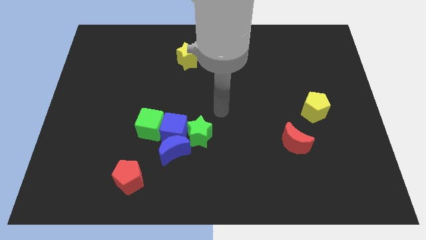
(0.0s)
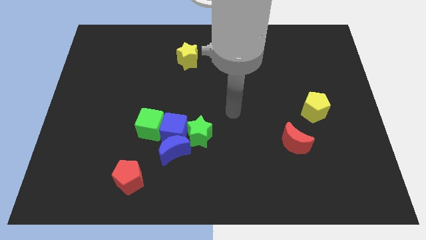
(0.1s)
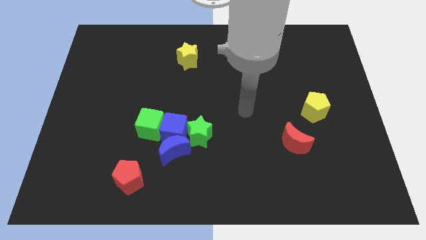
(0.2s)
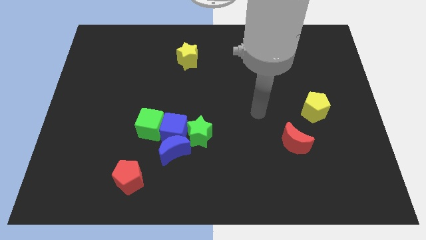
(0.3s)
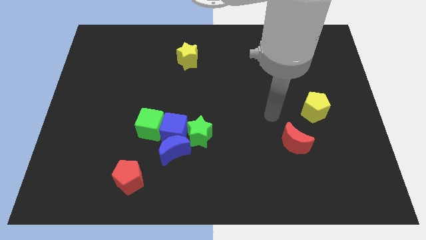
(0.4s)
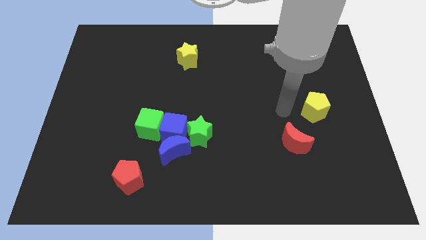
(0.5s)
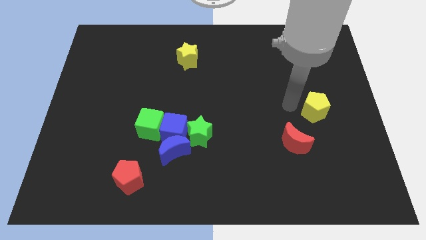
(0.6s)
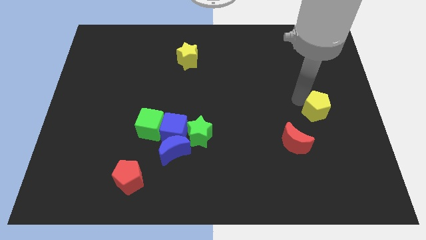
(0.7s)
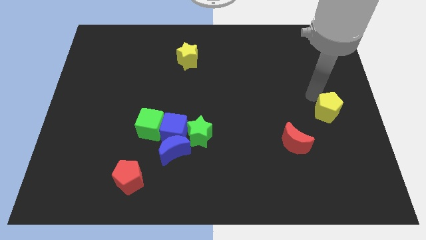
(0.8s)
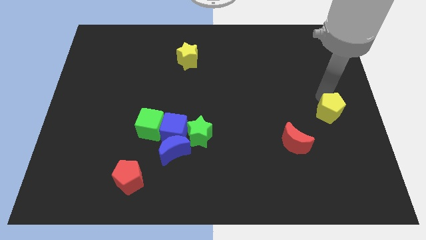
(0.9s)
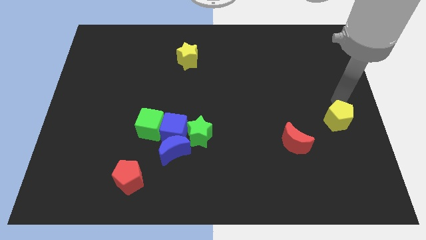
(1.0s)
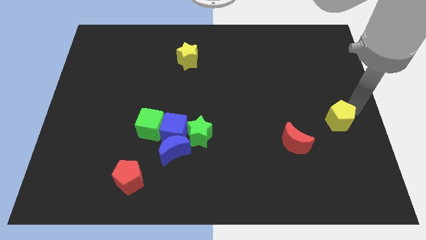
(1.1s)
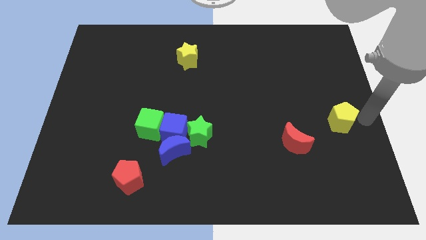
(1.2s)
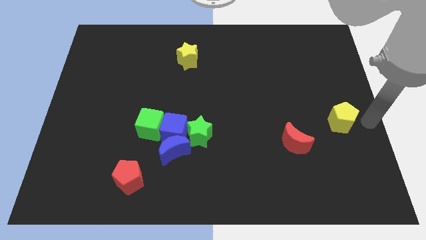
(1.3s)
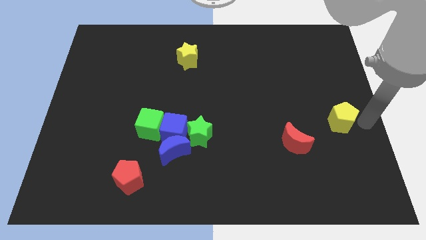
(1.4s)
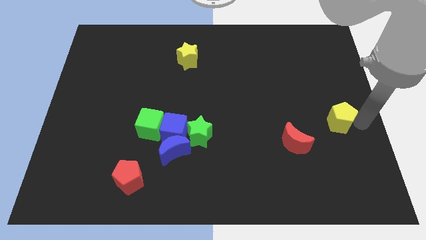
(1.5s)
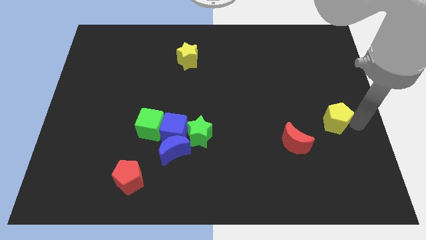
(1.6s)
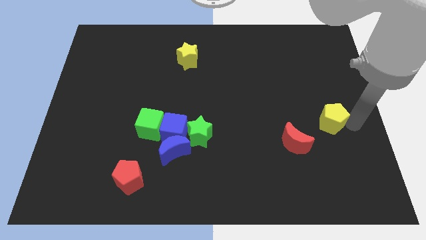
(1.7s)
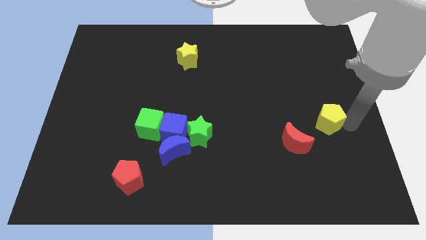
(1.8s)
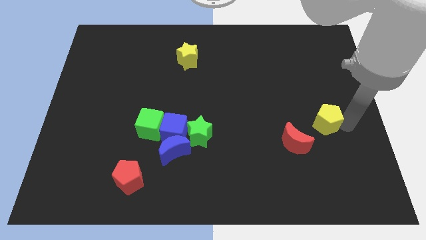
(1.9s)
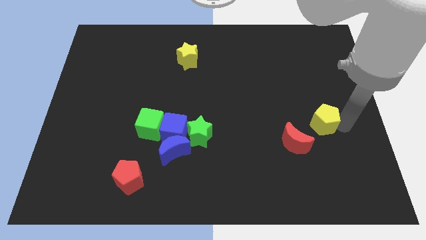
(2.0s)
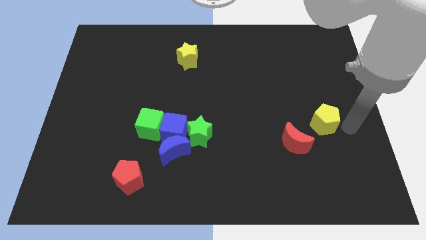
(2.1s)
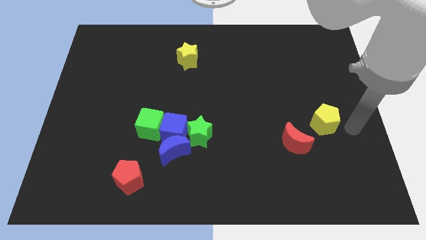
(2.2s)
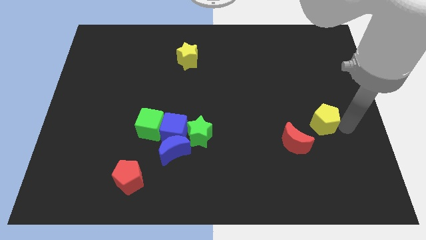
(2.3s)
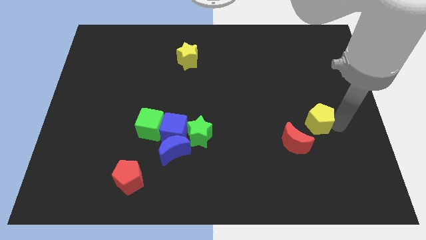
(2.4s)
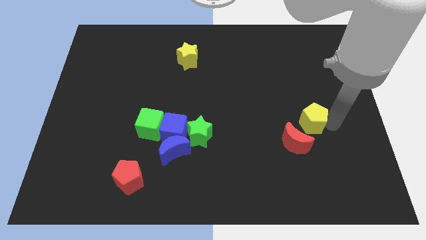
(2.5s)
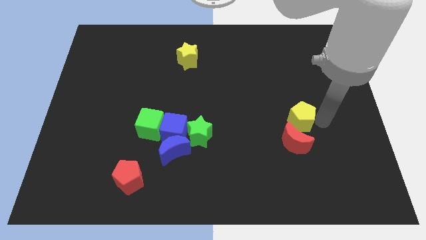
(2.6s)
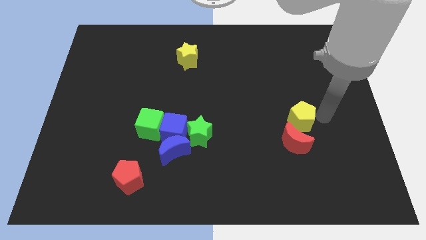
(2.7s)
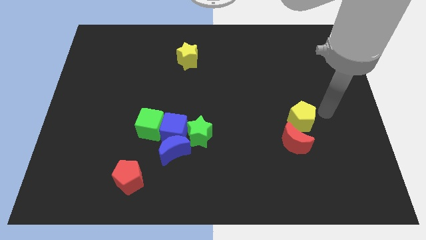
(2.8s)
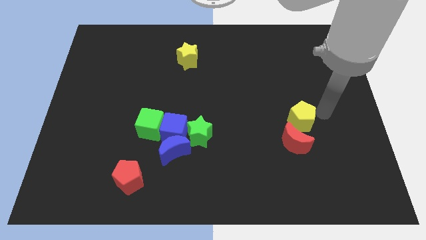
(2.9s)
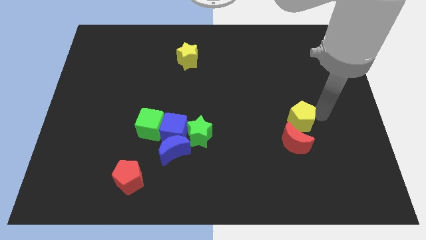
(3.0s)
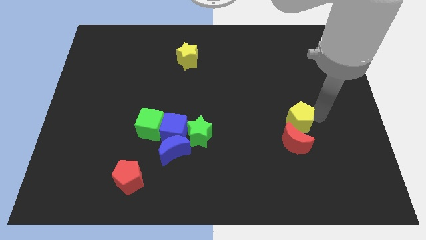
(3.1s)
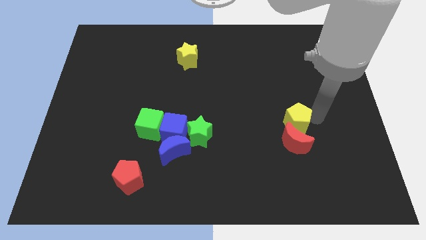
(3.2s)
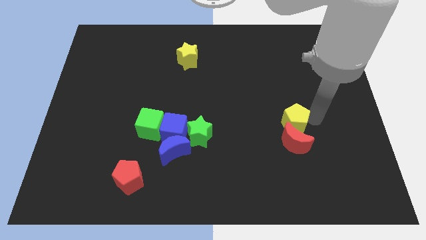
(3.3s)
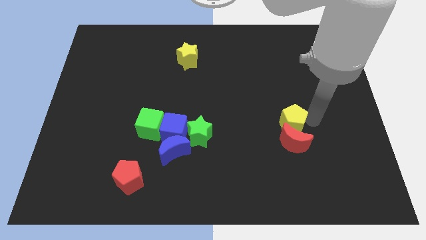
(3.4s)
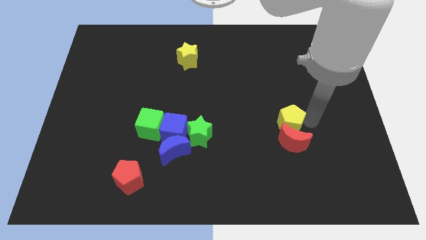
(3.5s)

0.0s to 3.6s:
push the yellow pentagon slightly downwards and then left

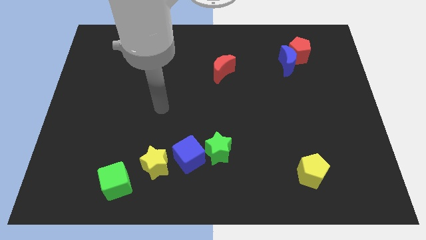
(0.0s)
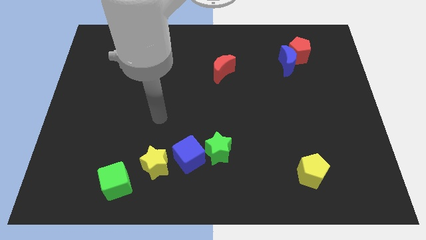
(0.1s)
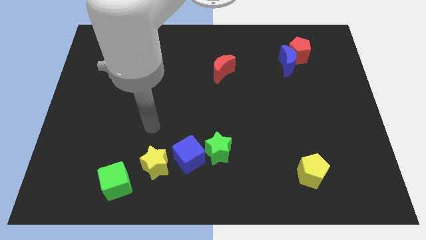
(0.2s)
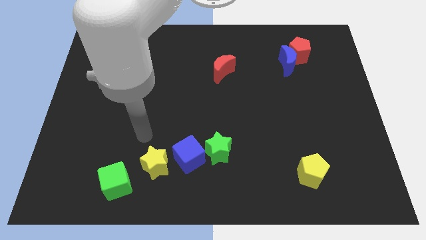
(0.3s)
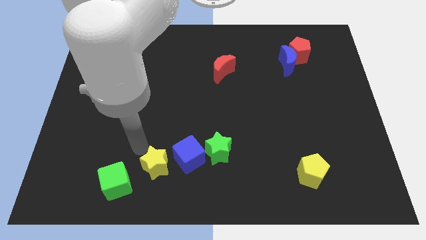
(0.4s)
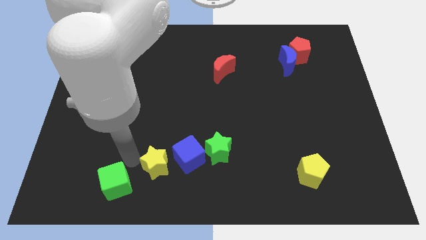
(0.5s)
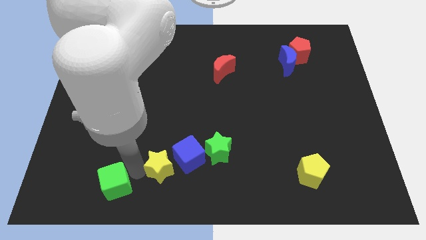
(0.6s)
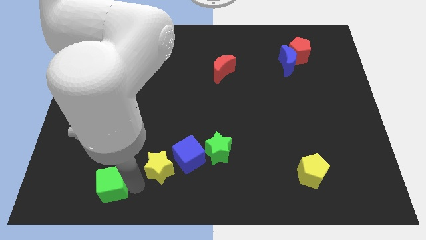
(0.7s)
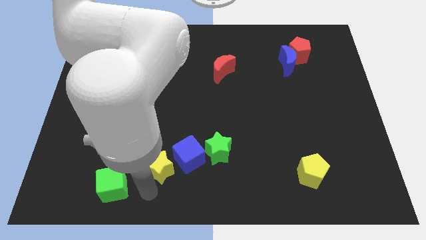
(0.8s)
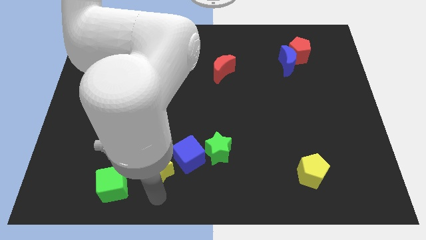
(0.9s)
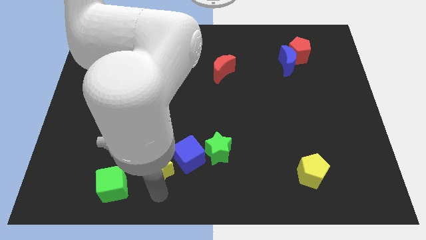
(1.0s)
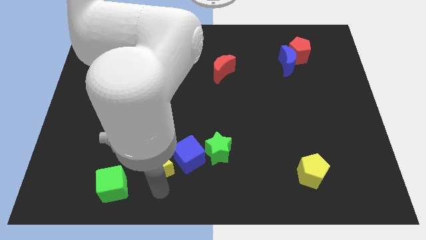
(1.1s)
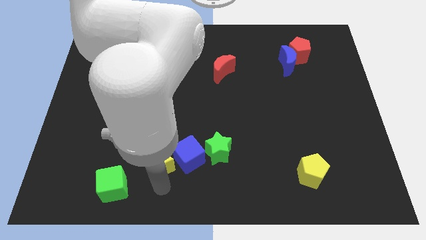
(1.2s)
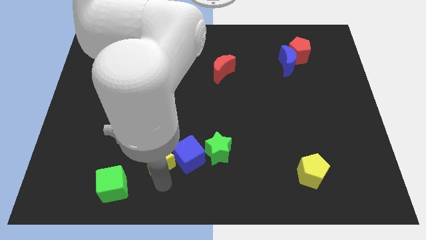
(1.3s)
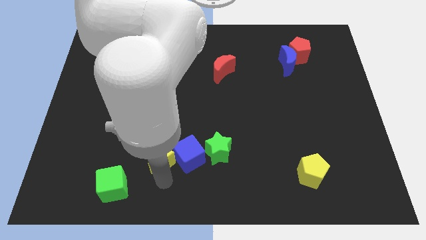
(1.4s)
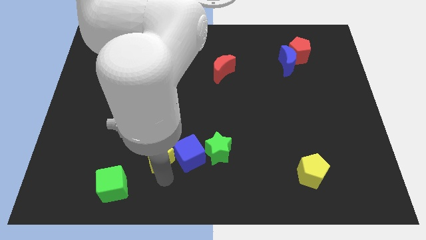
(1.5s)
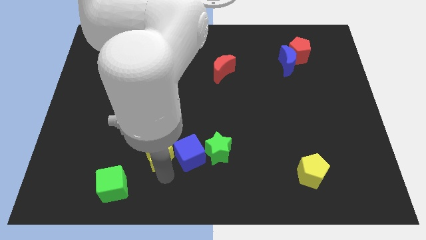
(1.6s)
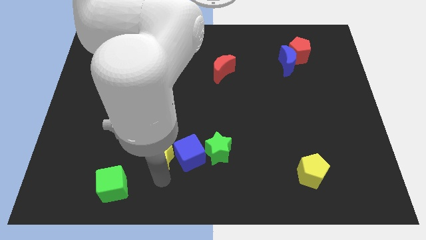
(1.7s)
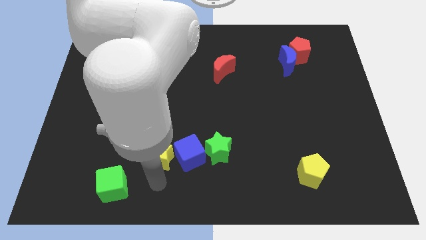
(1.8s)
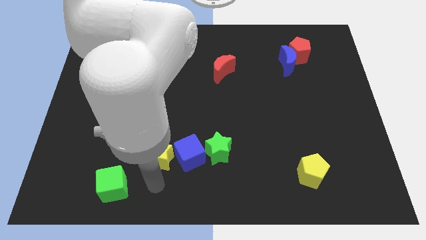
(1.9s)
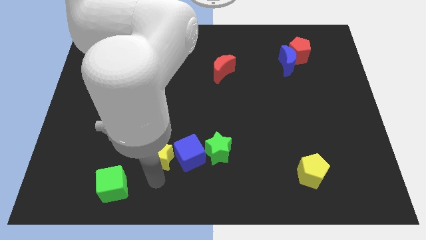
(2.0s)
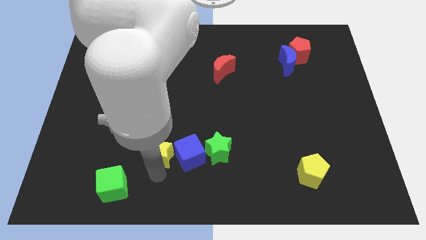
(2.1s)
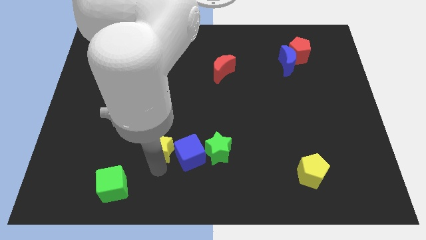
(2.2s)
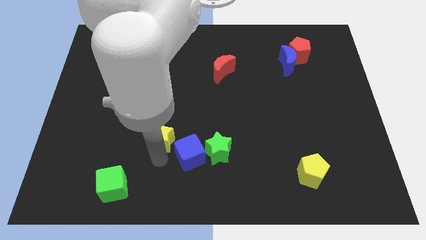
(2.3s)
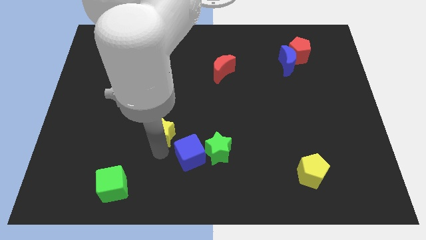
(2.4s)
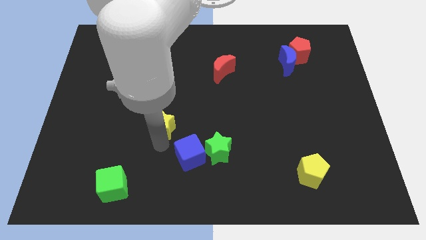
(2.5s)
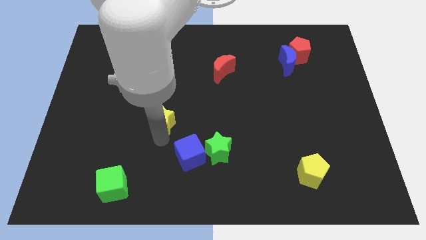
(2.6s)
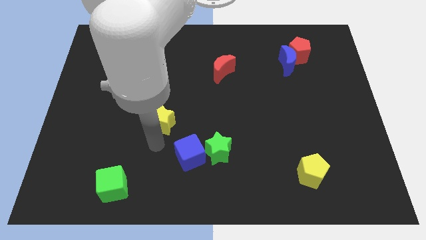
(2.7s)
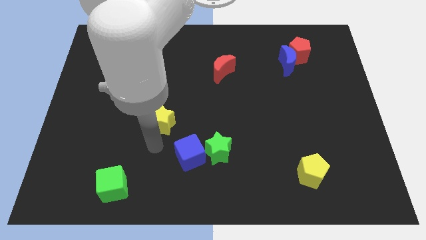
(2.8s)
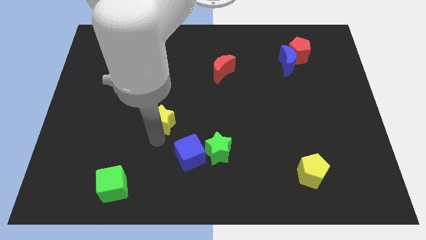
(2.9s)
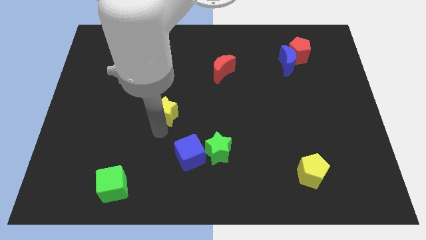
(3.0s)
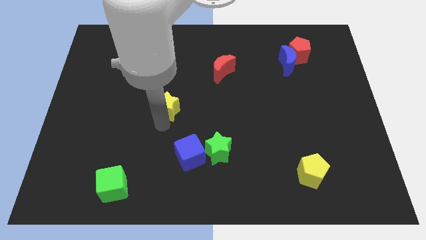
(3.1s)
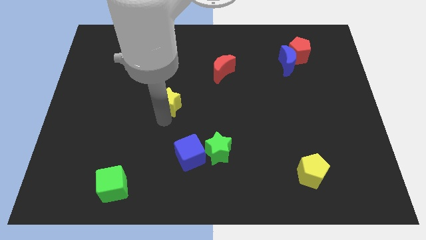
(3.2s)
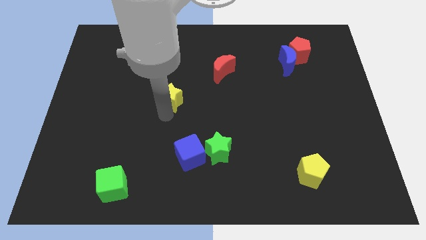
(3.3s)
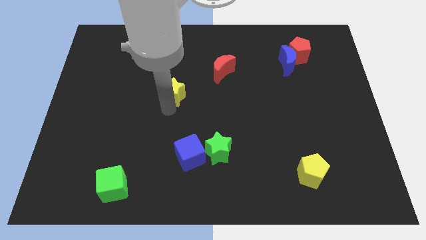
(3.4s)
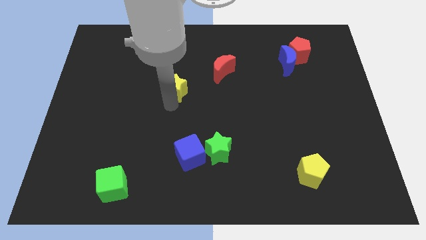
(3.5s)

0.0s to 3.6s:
move the yellow star up

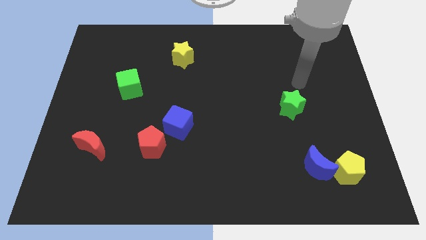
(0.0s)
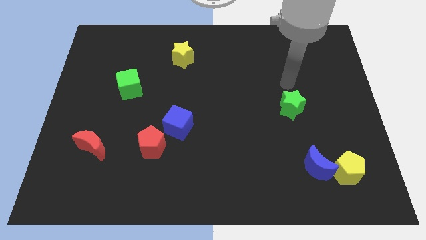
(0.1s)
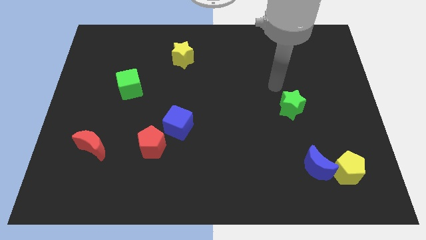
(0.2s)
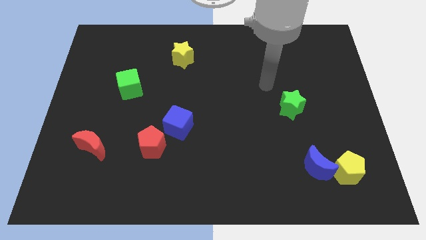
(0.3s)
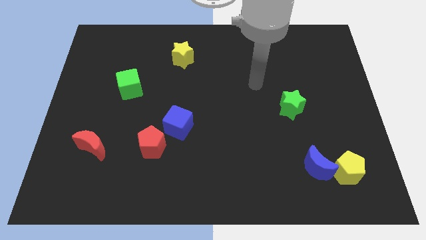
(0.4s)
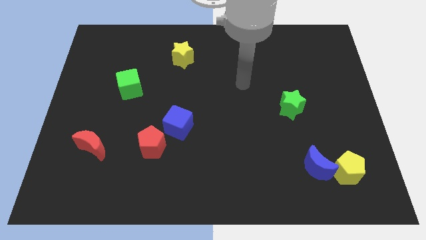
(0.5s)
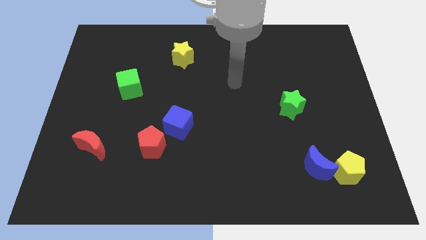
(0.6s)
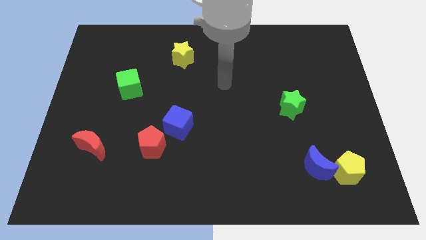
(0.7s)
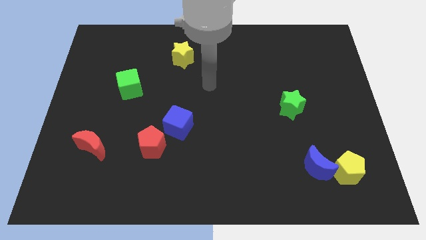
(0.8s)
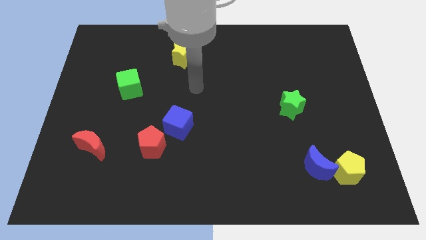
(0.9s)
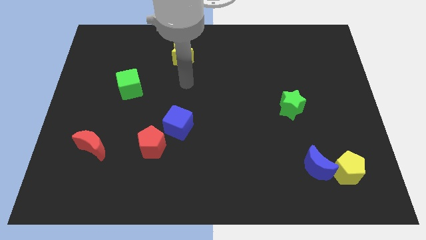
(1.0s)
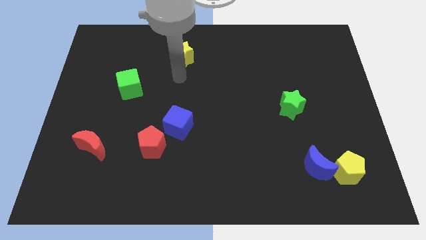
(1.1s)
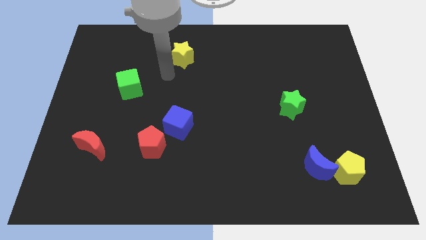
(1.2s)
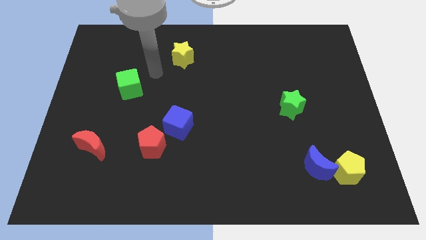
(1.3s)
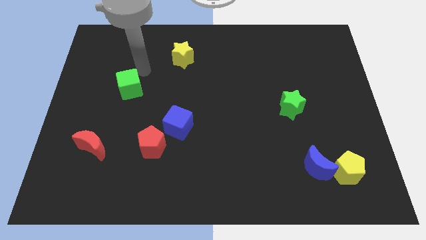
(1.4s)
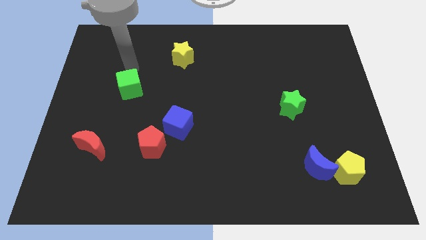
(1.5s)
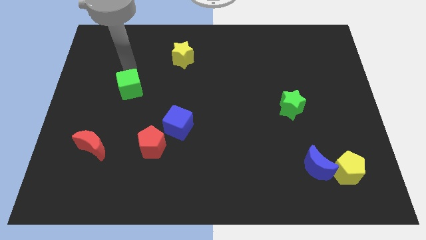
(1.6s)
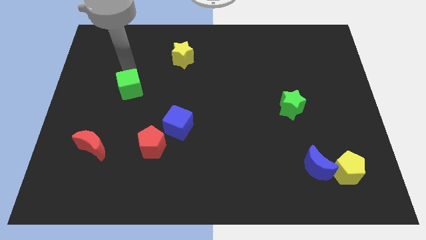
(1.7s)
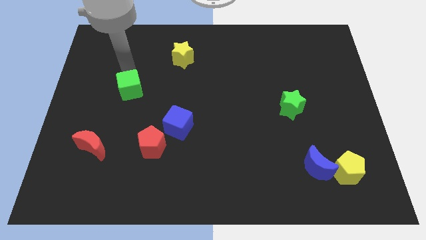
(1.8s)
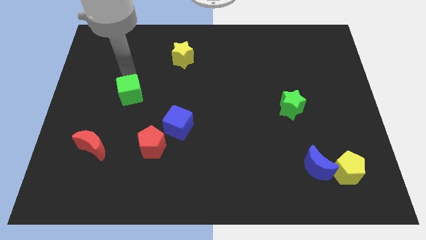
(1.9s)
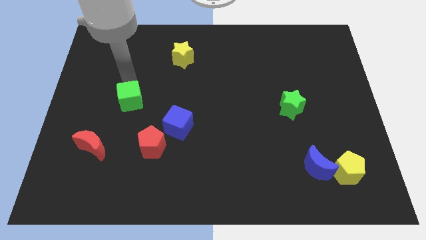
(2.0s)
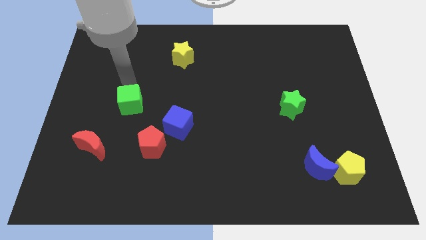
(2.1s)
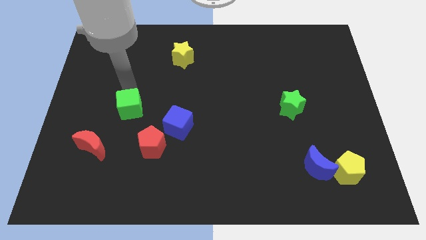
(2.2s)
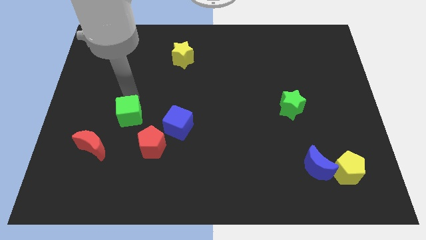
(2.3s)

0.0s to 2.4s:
slightly slide the green cube down
